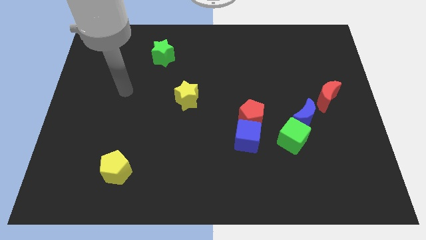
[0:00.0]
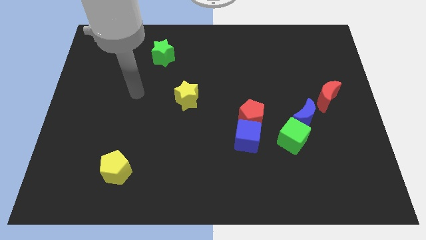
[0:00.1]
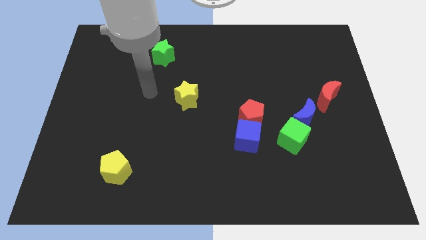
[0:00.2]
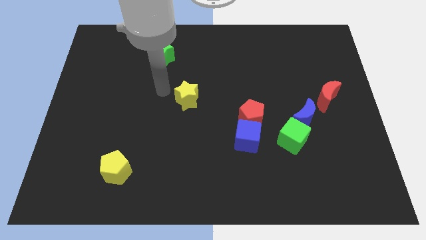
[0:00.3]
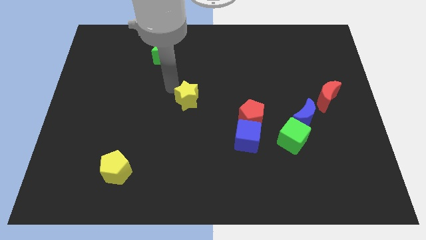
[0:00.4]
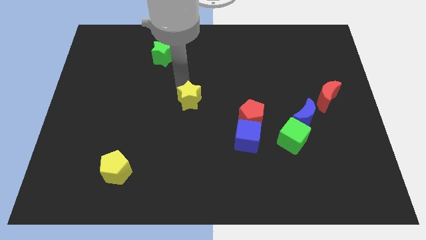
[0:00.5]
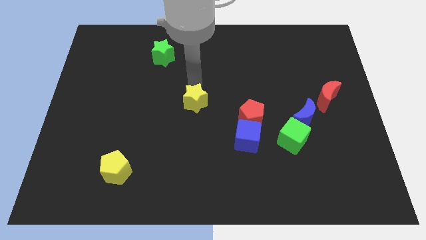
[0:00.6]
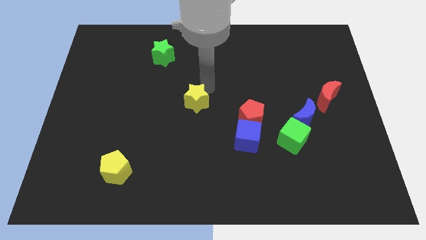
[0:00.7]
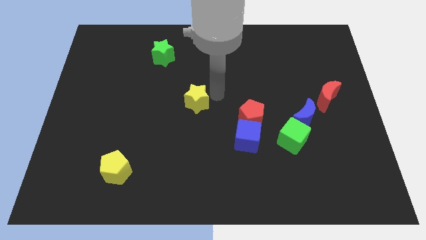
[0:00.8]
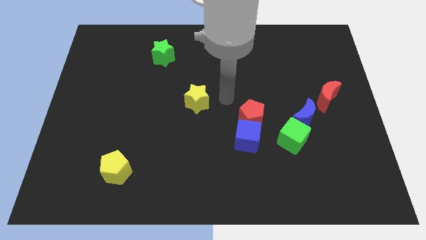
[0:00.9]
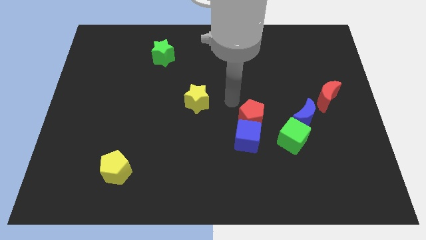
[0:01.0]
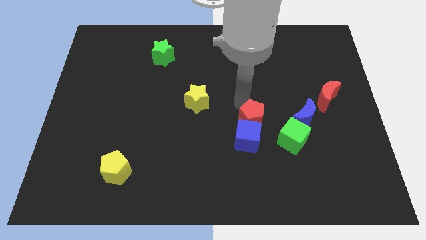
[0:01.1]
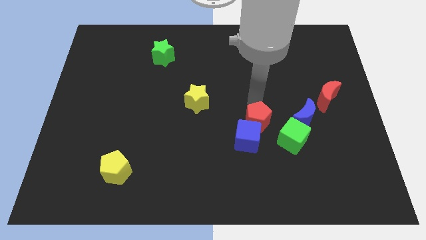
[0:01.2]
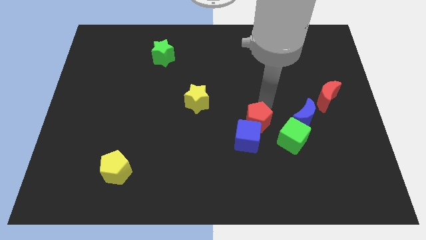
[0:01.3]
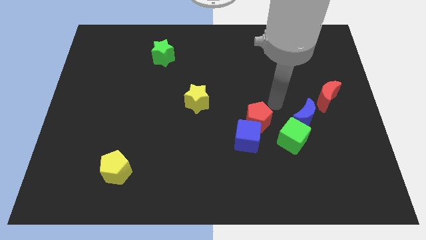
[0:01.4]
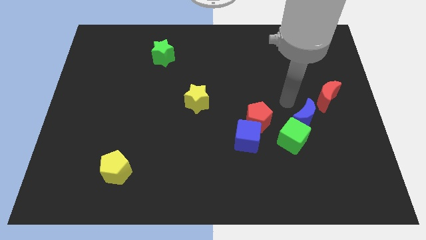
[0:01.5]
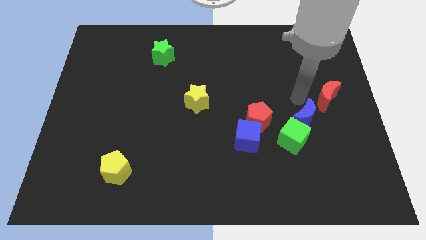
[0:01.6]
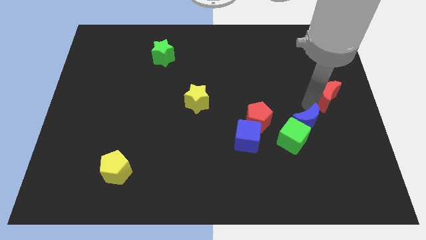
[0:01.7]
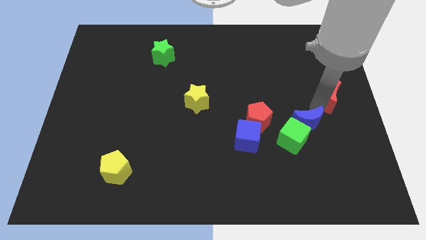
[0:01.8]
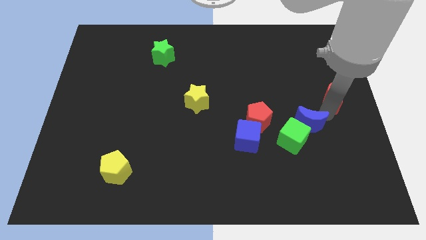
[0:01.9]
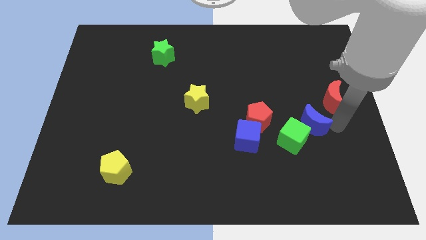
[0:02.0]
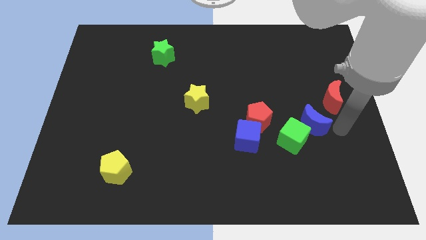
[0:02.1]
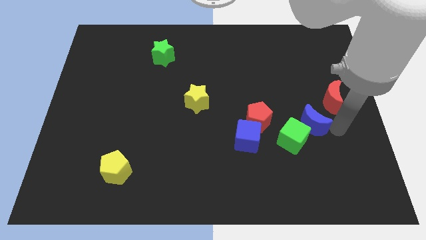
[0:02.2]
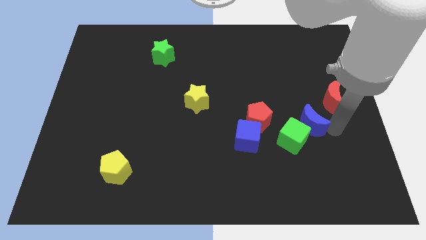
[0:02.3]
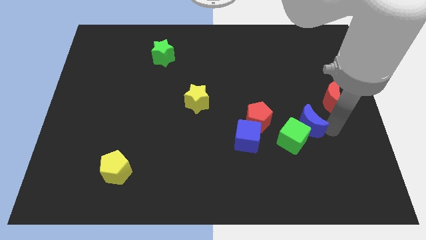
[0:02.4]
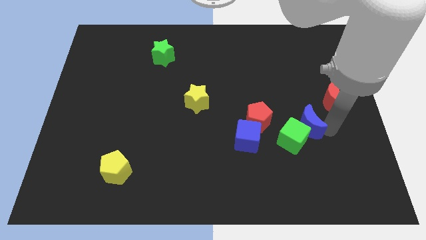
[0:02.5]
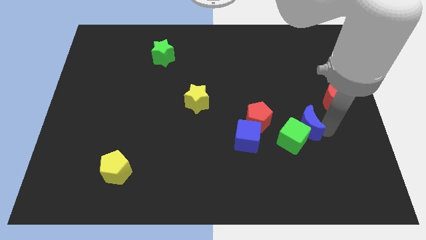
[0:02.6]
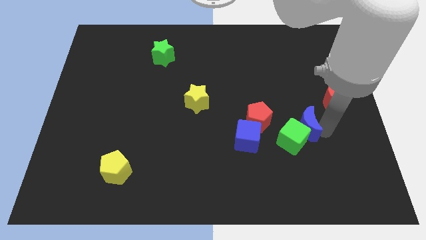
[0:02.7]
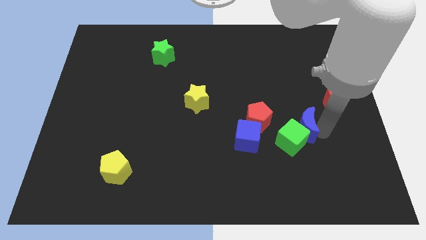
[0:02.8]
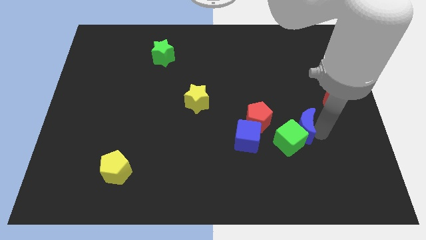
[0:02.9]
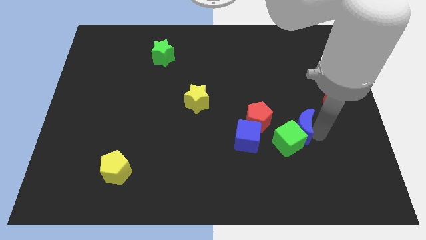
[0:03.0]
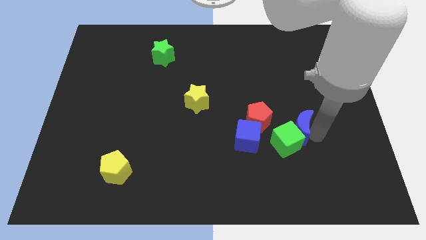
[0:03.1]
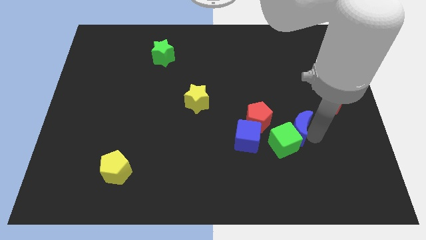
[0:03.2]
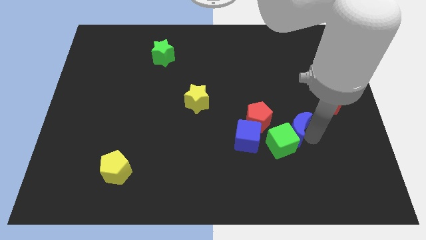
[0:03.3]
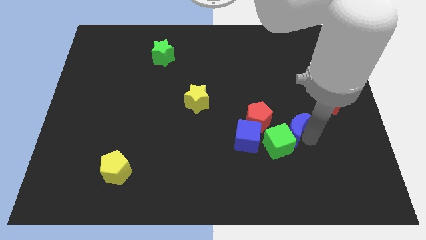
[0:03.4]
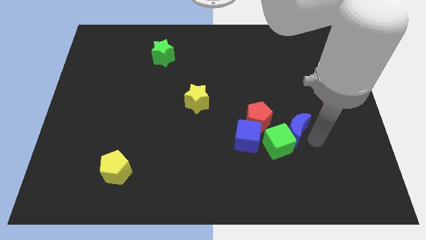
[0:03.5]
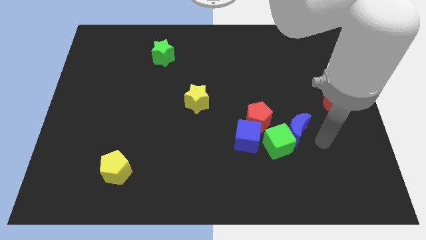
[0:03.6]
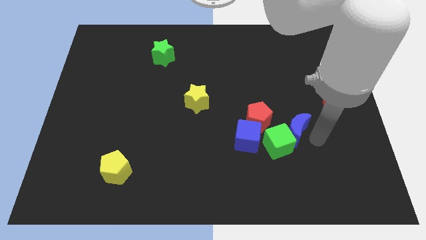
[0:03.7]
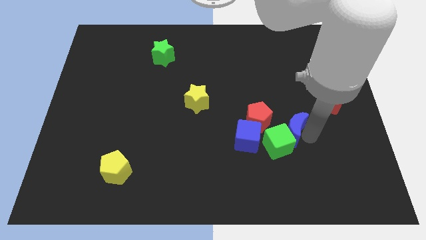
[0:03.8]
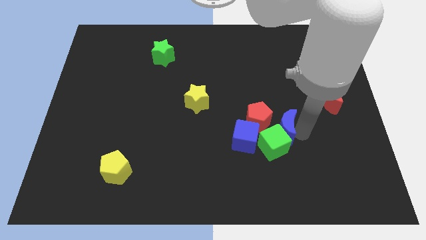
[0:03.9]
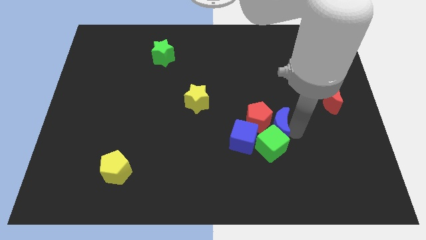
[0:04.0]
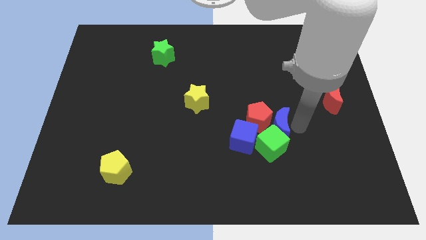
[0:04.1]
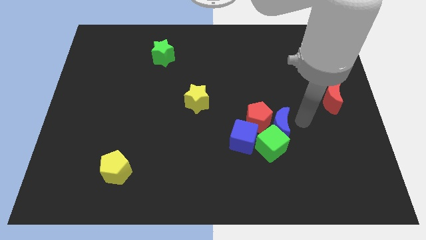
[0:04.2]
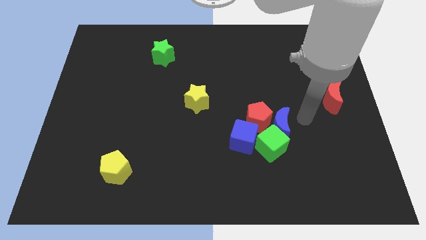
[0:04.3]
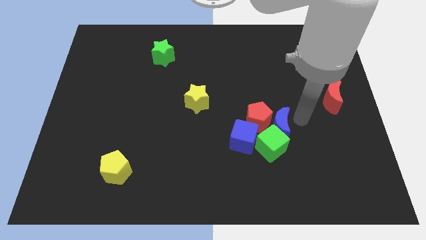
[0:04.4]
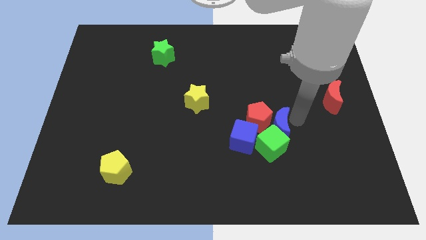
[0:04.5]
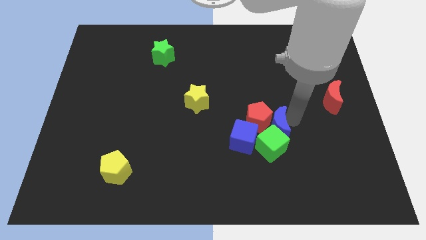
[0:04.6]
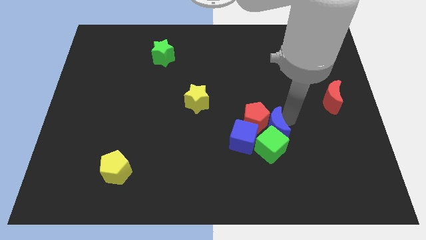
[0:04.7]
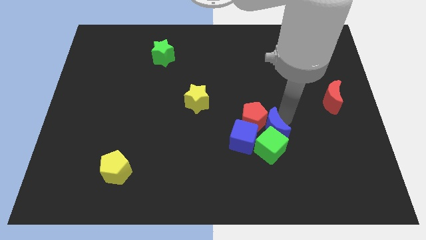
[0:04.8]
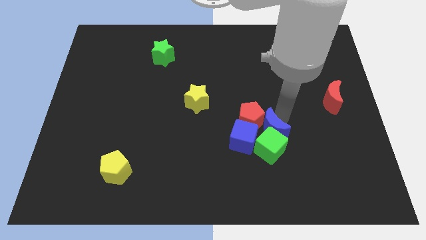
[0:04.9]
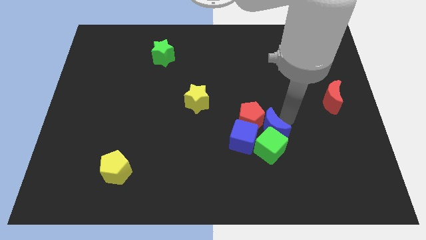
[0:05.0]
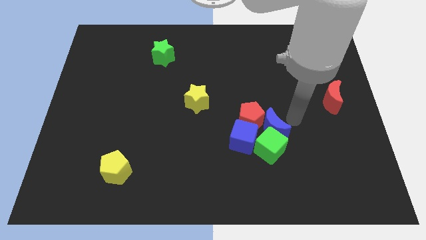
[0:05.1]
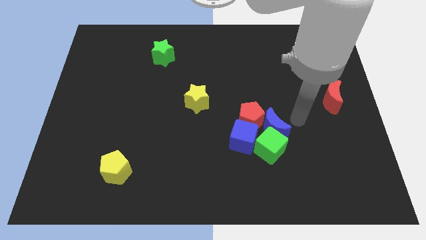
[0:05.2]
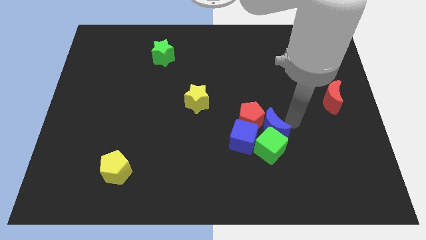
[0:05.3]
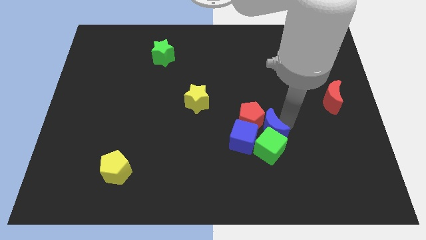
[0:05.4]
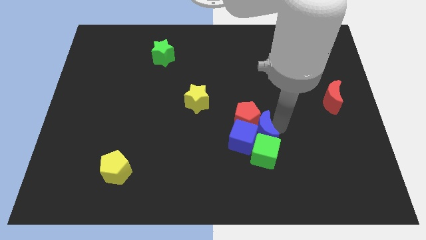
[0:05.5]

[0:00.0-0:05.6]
slide the blue moon close to the blue cube

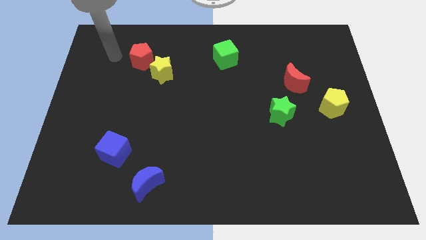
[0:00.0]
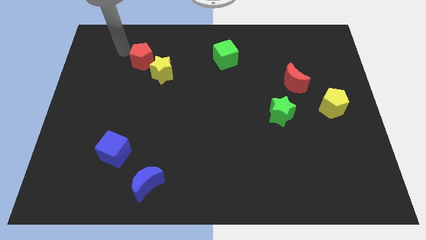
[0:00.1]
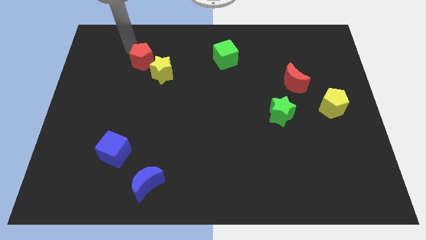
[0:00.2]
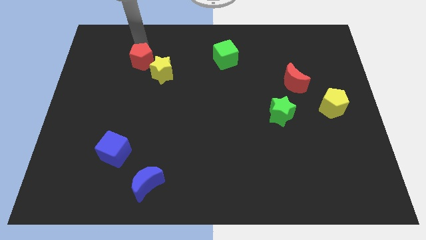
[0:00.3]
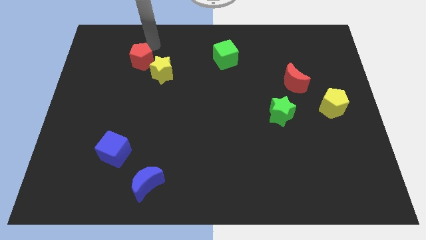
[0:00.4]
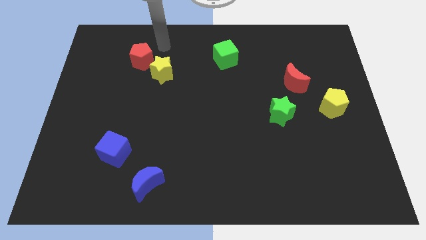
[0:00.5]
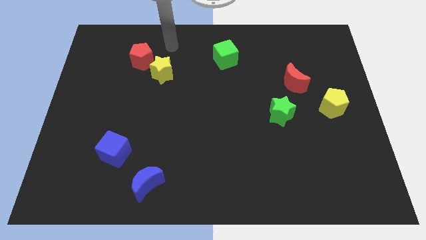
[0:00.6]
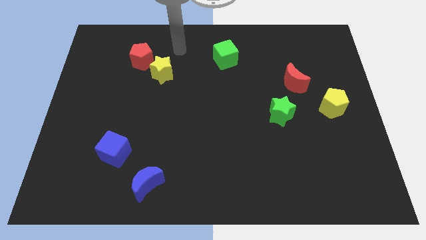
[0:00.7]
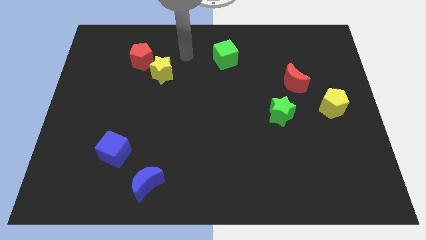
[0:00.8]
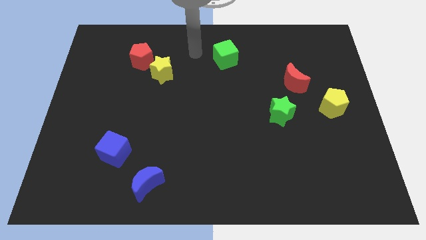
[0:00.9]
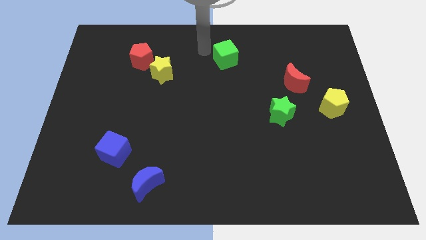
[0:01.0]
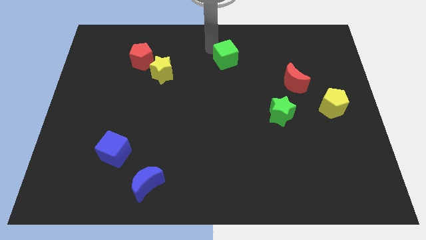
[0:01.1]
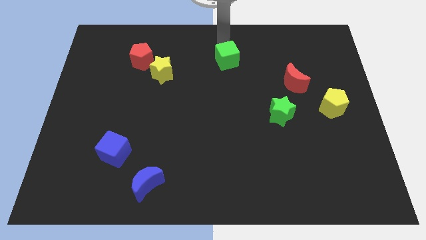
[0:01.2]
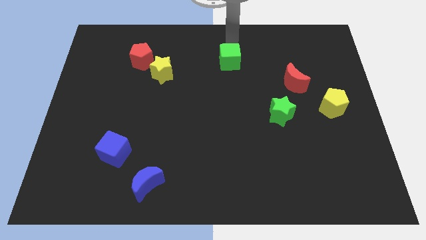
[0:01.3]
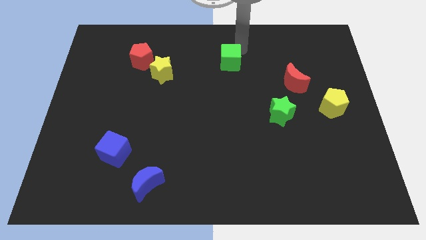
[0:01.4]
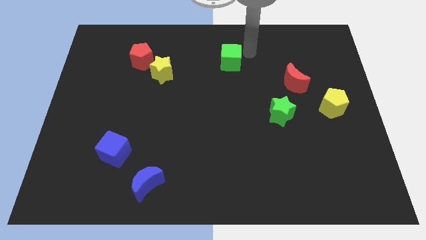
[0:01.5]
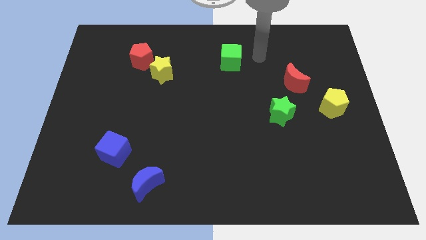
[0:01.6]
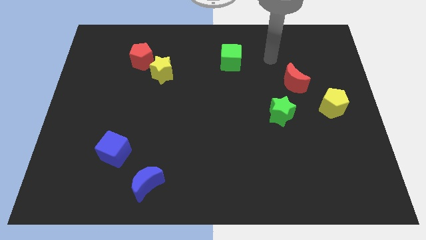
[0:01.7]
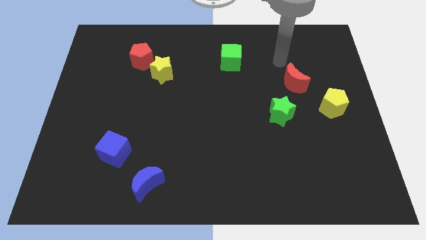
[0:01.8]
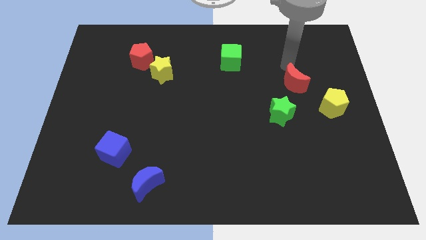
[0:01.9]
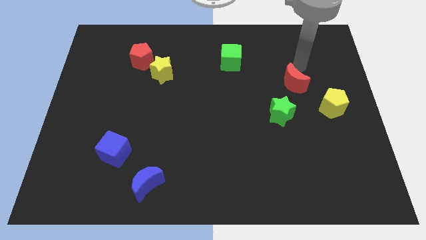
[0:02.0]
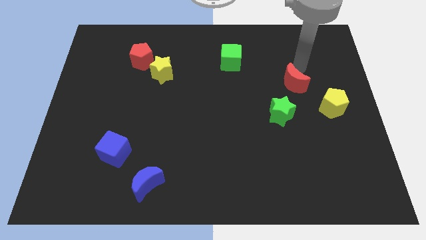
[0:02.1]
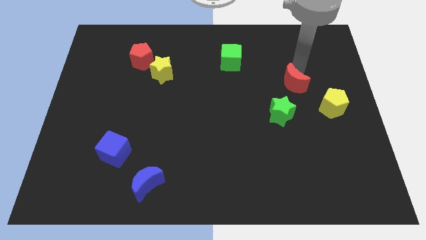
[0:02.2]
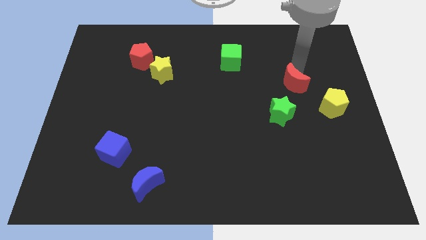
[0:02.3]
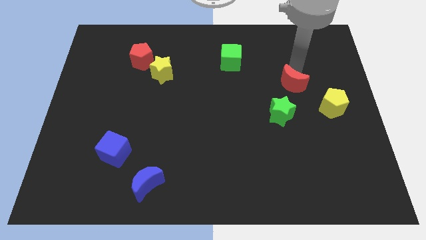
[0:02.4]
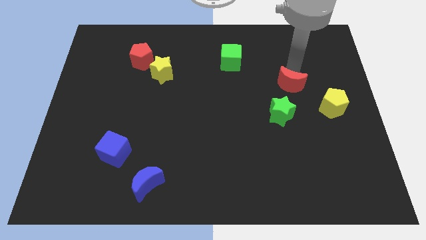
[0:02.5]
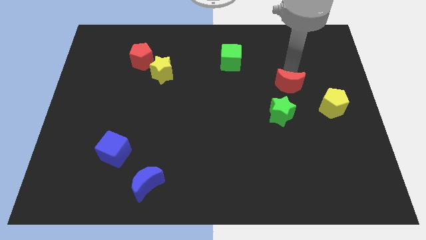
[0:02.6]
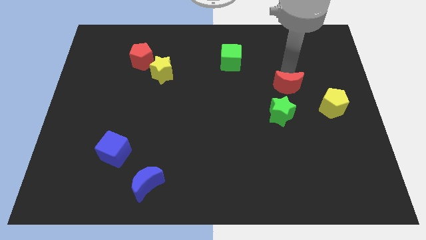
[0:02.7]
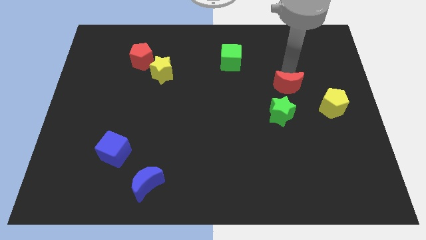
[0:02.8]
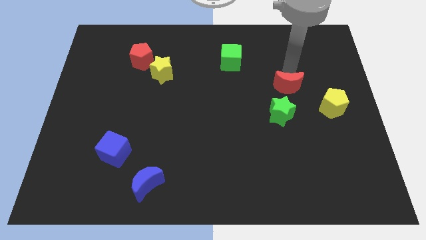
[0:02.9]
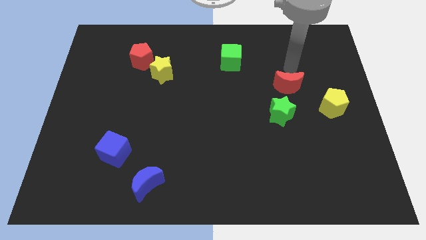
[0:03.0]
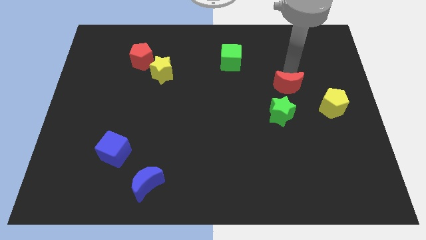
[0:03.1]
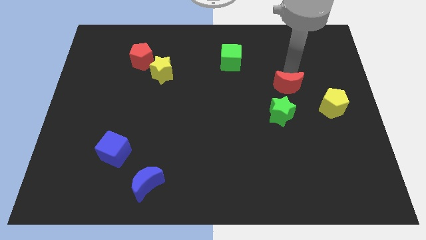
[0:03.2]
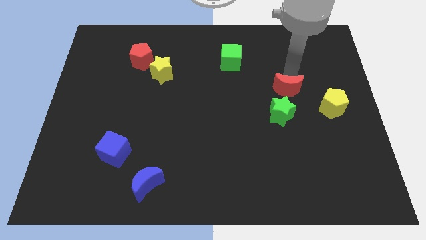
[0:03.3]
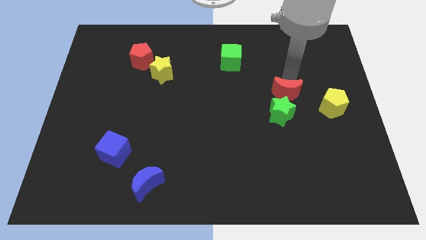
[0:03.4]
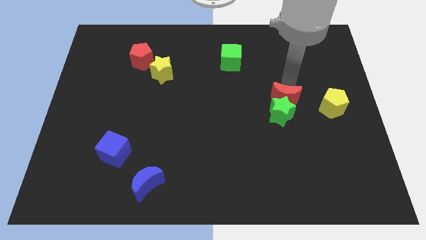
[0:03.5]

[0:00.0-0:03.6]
slide the red moon next to the green star
